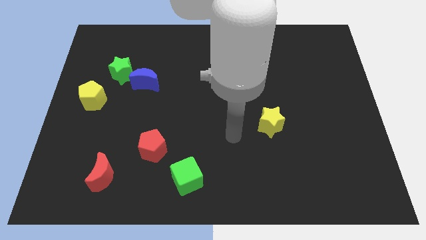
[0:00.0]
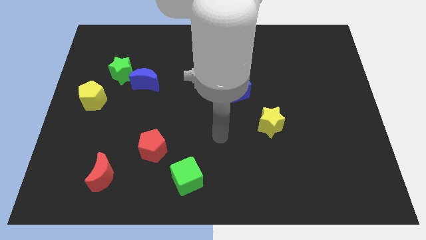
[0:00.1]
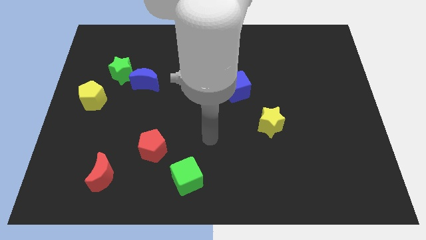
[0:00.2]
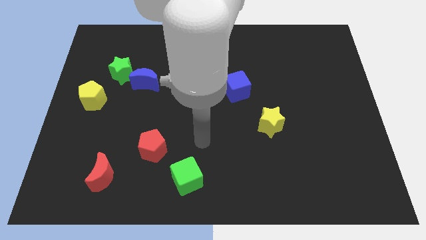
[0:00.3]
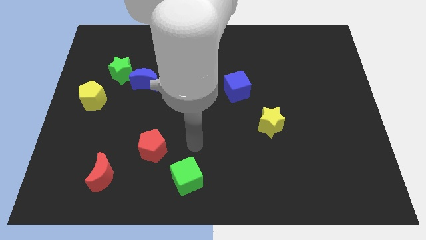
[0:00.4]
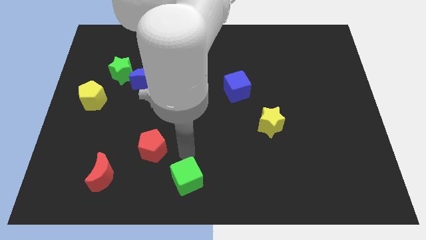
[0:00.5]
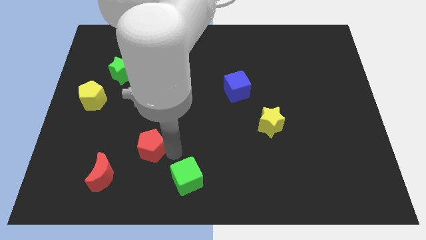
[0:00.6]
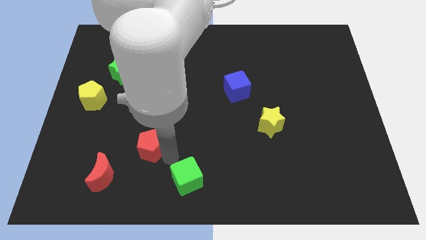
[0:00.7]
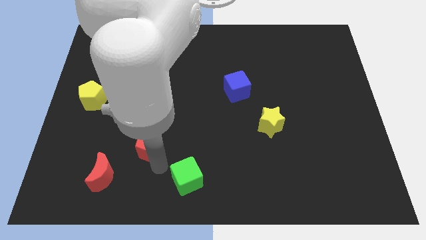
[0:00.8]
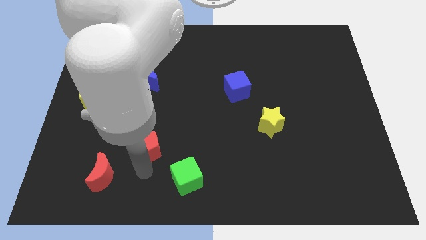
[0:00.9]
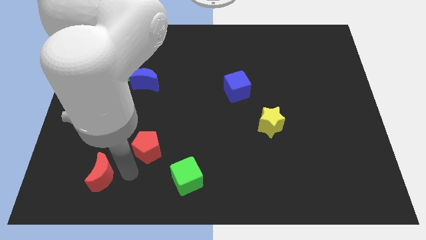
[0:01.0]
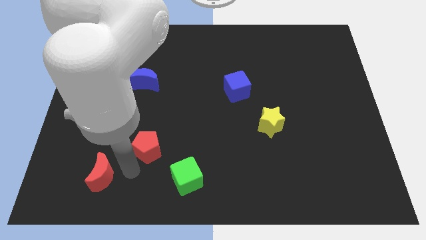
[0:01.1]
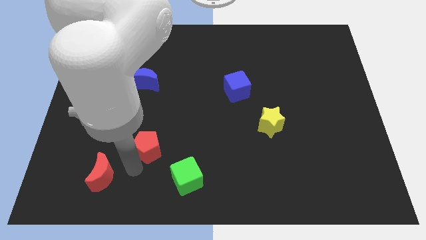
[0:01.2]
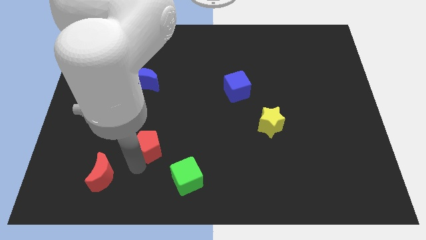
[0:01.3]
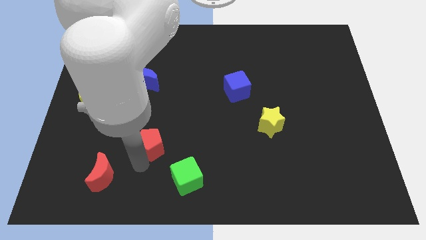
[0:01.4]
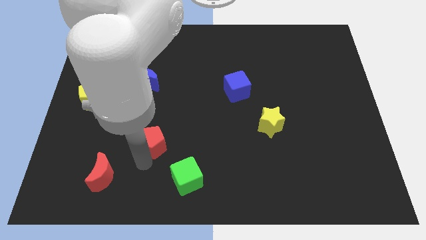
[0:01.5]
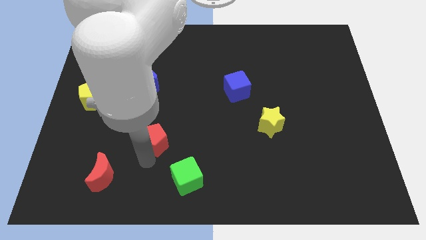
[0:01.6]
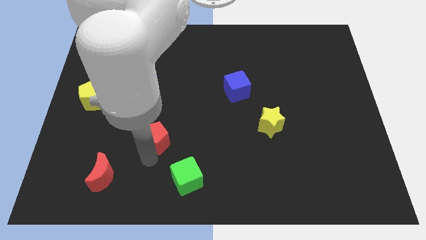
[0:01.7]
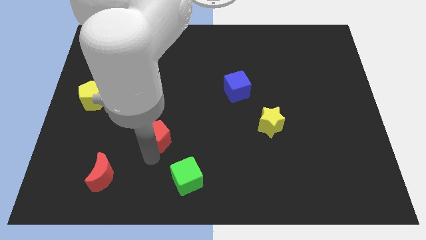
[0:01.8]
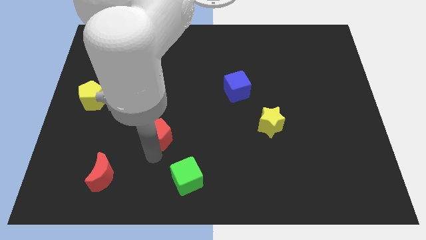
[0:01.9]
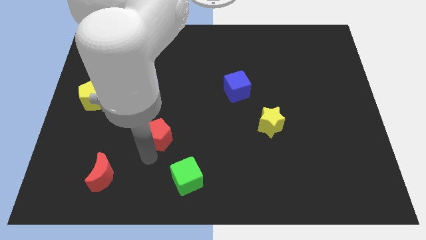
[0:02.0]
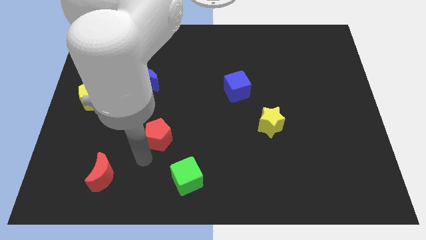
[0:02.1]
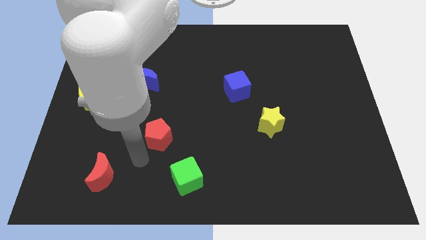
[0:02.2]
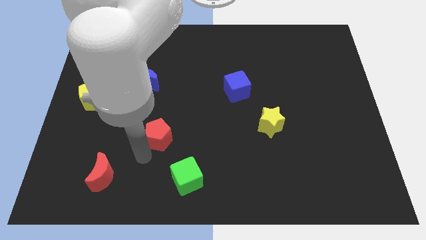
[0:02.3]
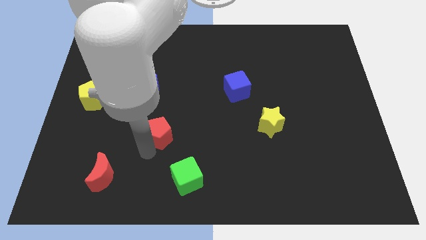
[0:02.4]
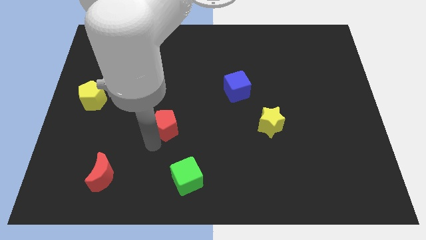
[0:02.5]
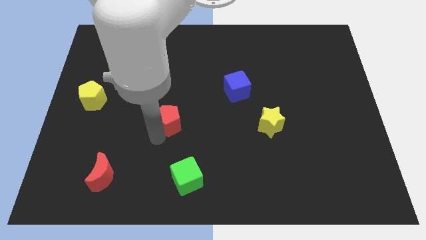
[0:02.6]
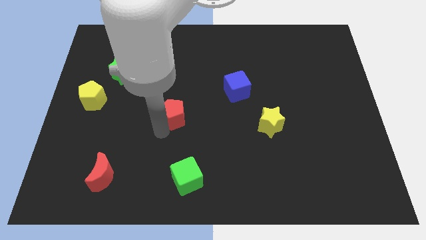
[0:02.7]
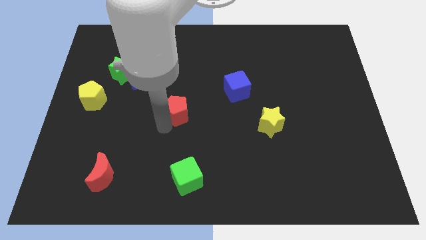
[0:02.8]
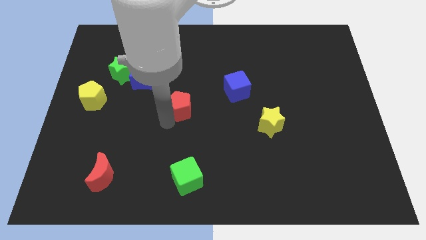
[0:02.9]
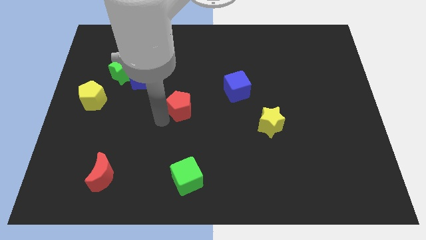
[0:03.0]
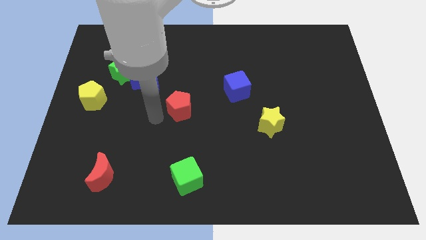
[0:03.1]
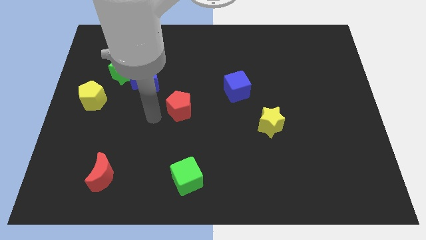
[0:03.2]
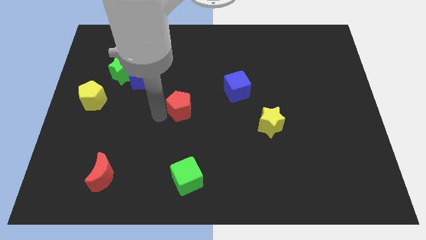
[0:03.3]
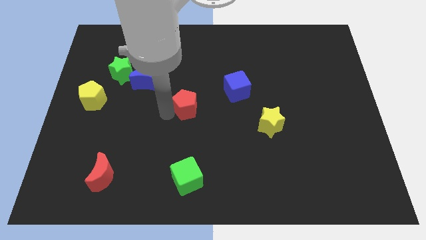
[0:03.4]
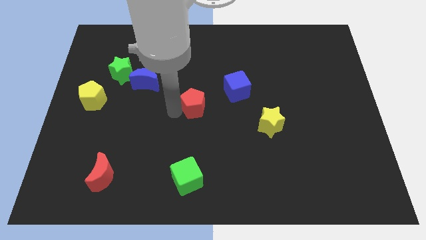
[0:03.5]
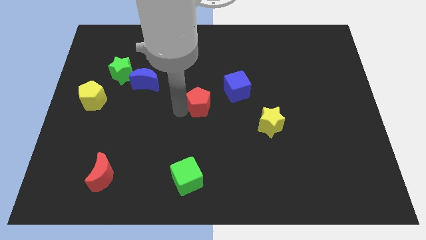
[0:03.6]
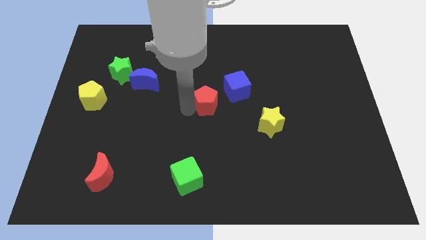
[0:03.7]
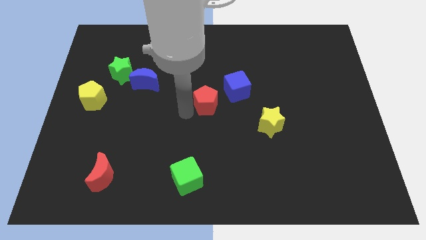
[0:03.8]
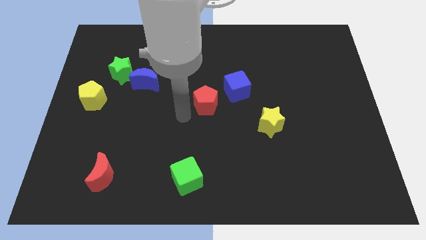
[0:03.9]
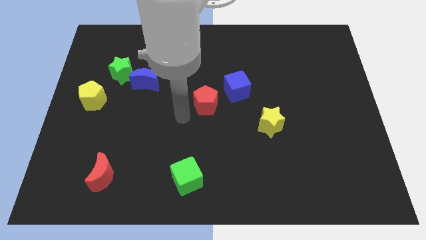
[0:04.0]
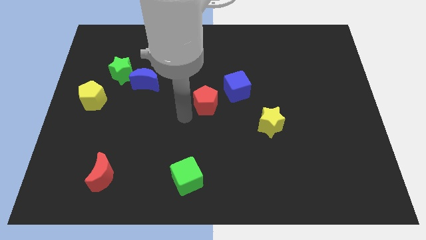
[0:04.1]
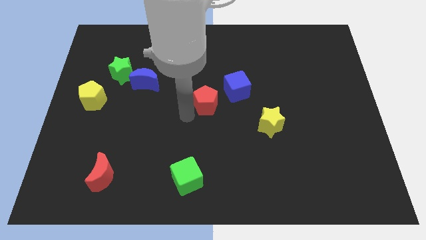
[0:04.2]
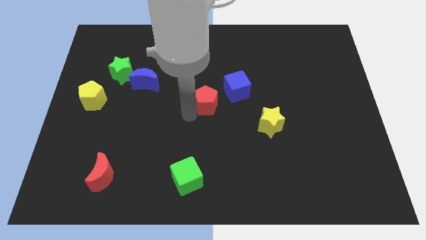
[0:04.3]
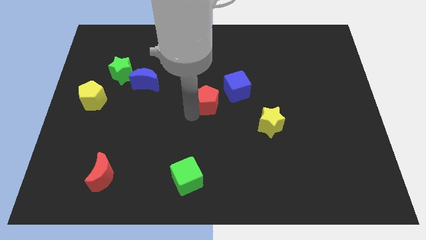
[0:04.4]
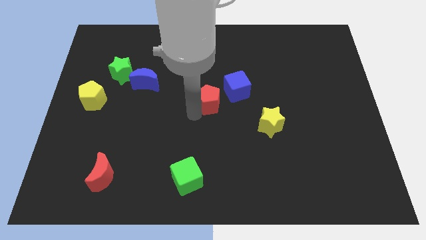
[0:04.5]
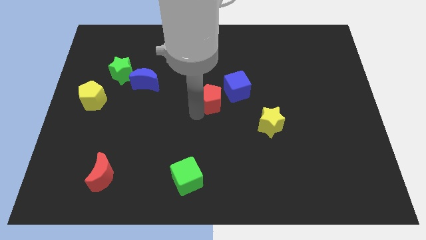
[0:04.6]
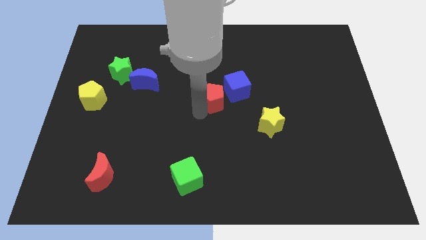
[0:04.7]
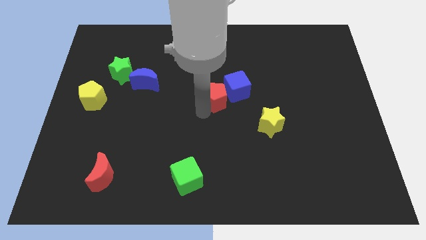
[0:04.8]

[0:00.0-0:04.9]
put the red pentagon towards the blue cube

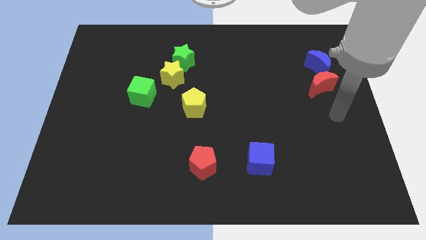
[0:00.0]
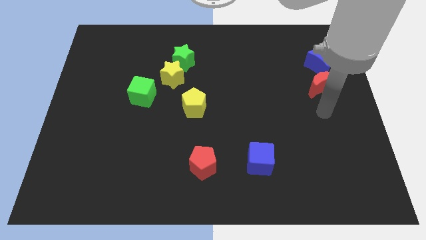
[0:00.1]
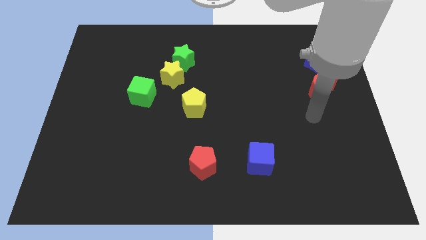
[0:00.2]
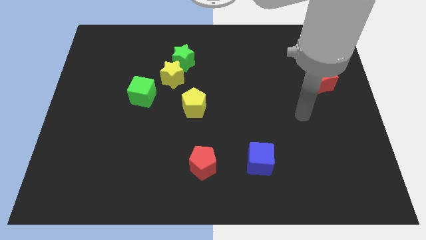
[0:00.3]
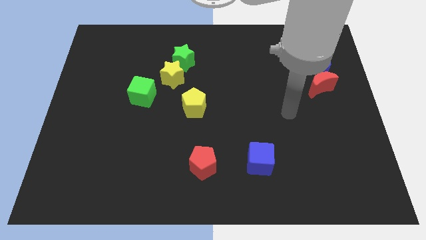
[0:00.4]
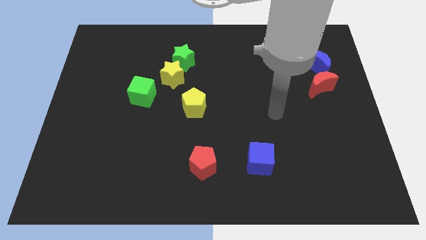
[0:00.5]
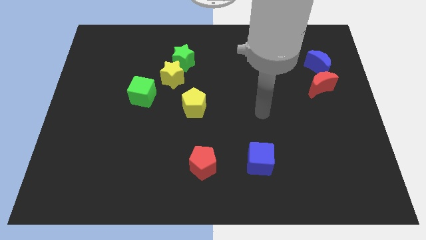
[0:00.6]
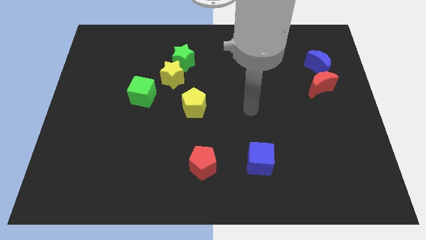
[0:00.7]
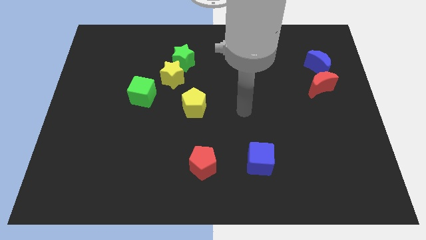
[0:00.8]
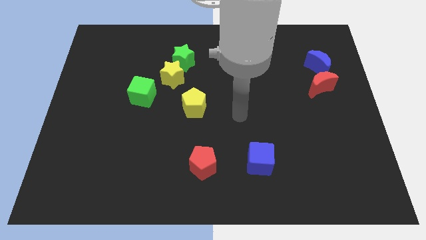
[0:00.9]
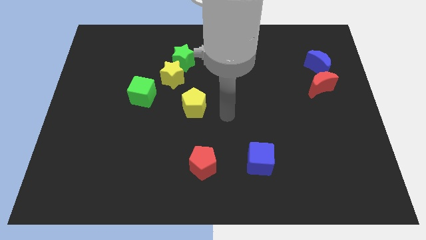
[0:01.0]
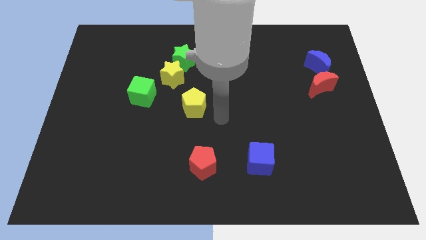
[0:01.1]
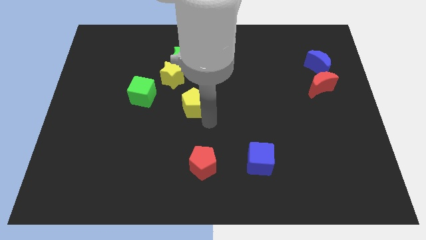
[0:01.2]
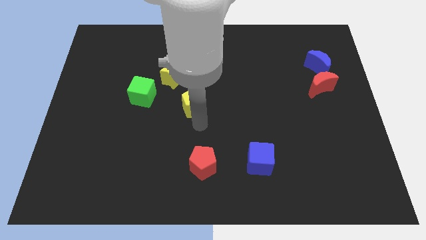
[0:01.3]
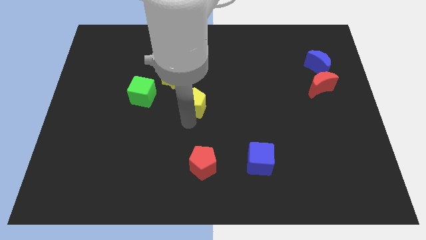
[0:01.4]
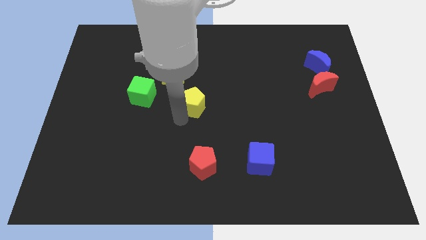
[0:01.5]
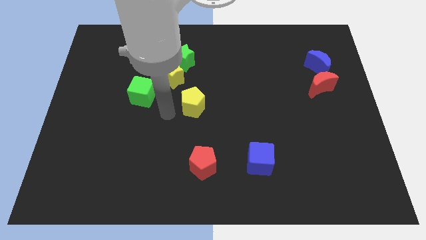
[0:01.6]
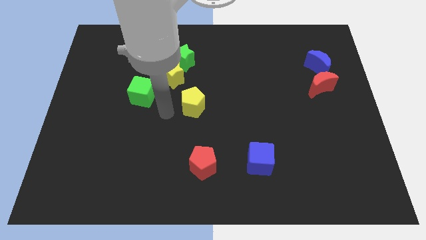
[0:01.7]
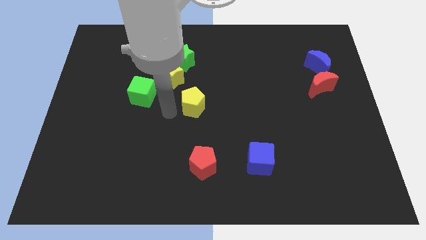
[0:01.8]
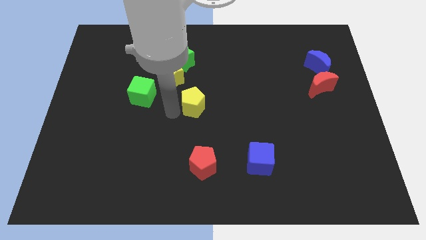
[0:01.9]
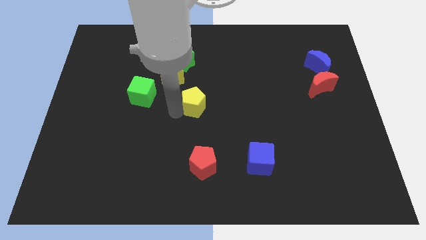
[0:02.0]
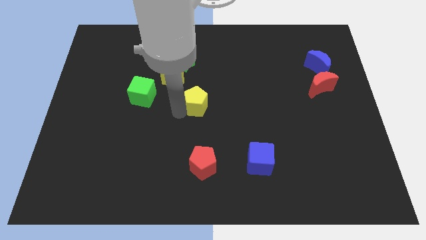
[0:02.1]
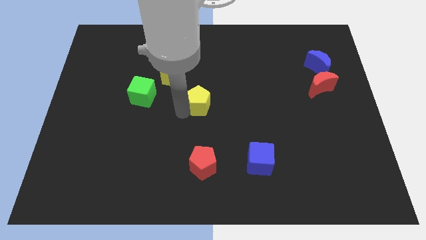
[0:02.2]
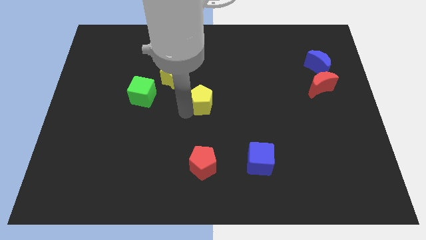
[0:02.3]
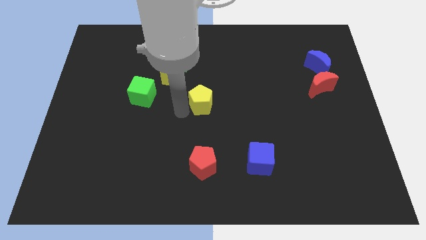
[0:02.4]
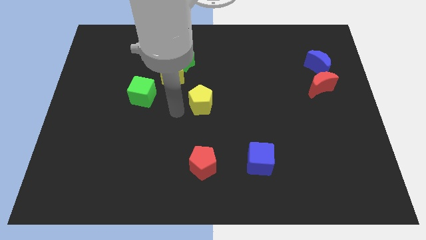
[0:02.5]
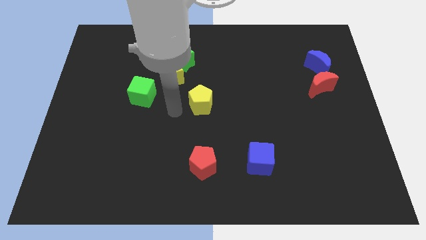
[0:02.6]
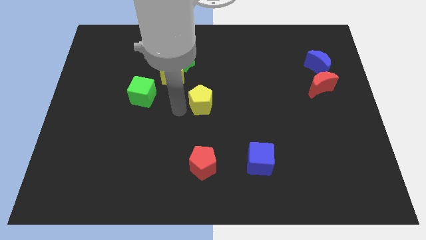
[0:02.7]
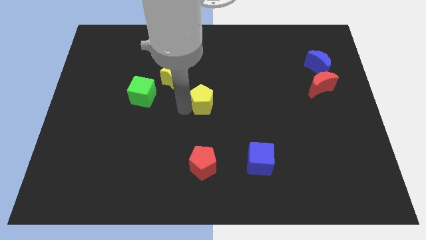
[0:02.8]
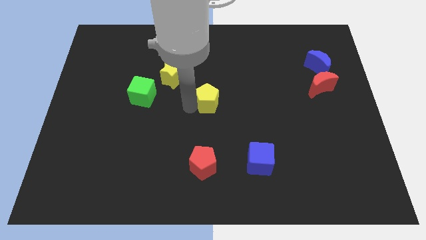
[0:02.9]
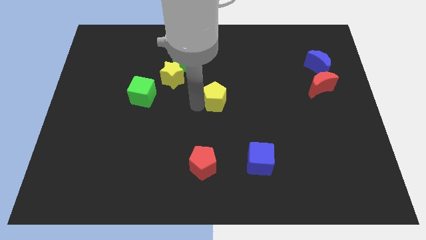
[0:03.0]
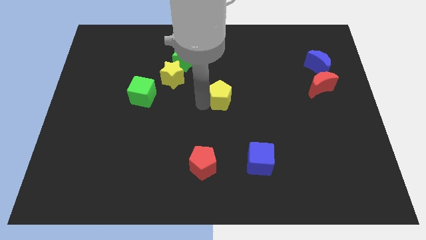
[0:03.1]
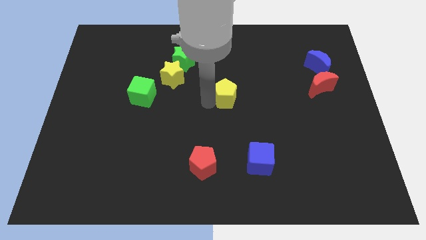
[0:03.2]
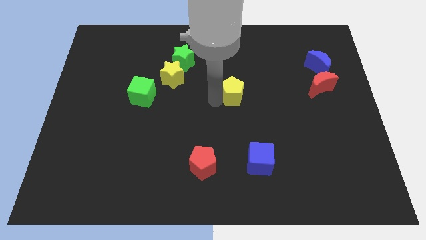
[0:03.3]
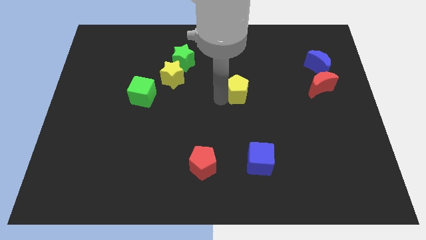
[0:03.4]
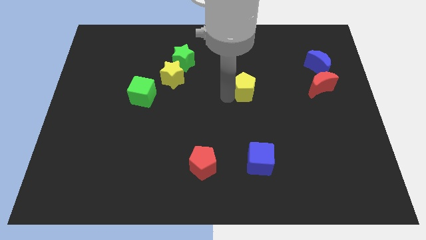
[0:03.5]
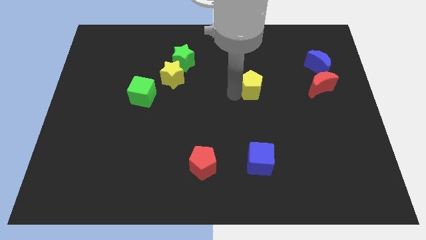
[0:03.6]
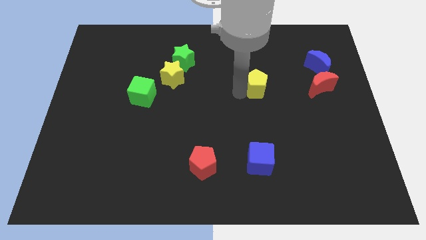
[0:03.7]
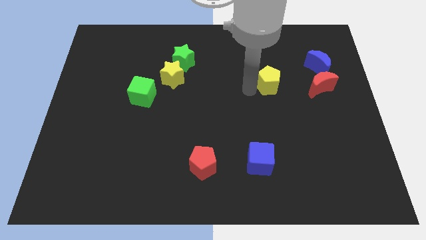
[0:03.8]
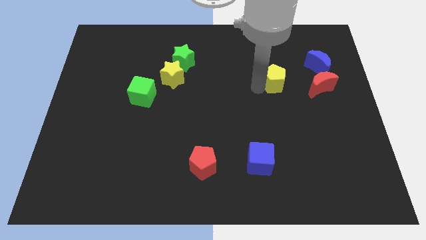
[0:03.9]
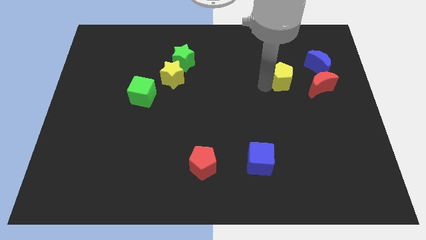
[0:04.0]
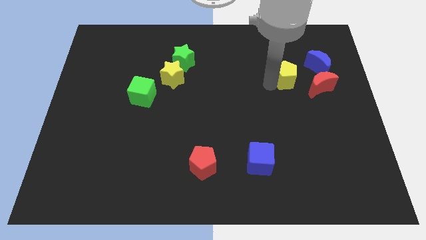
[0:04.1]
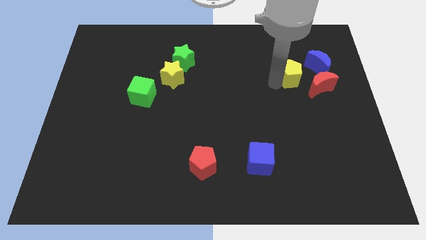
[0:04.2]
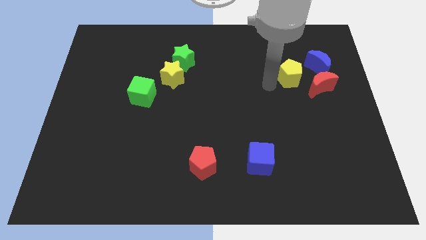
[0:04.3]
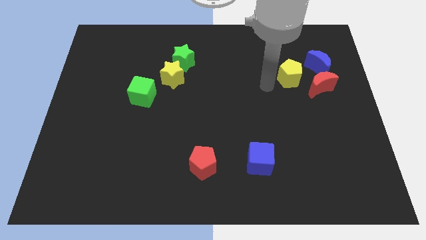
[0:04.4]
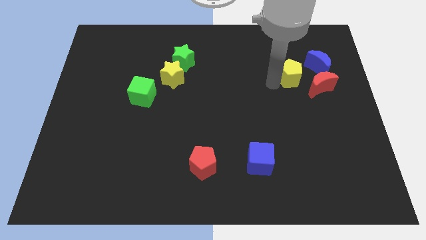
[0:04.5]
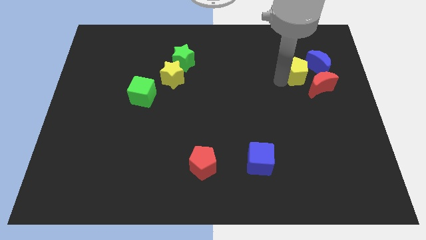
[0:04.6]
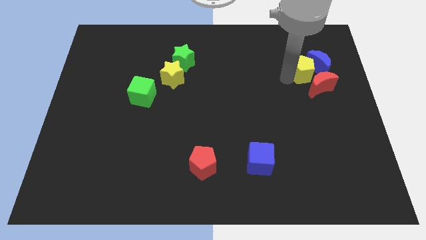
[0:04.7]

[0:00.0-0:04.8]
slide the yellow pentagon close to the blue moon
